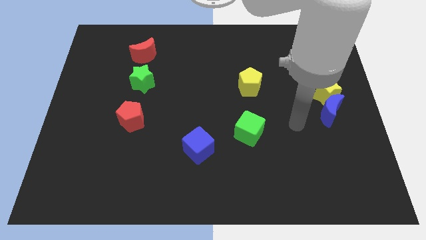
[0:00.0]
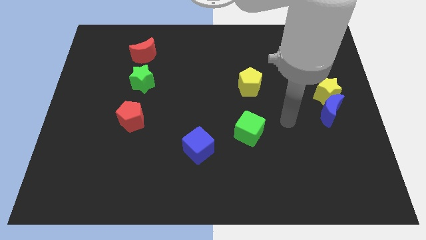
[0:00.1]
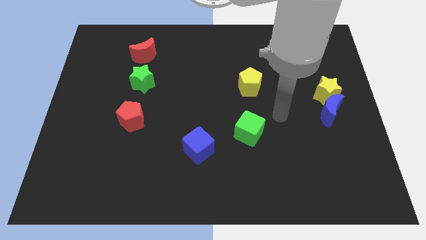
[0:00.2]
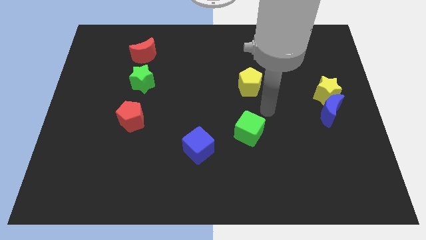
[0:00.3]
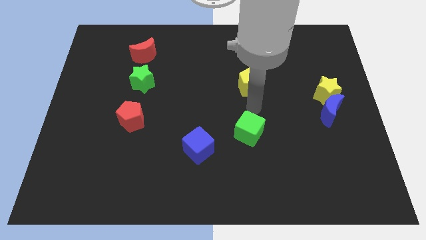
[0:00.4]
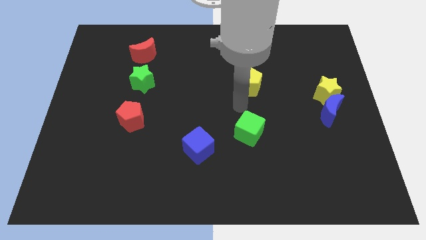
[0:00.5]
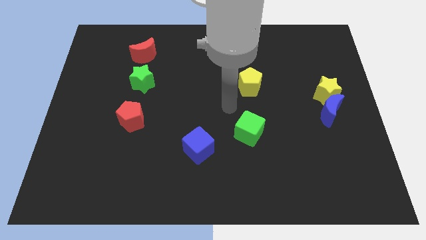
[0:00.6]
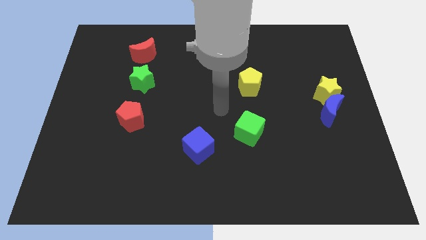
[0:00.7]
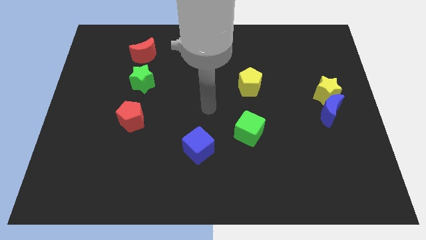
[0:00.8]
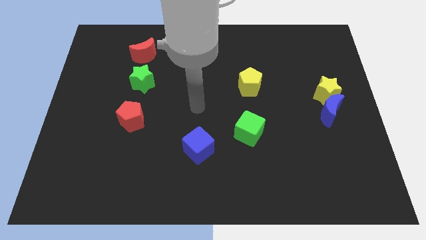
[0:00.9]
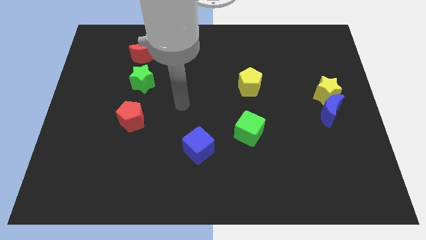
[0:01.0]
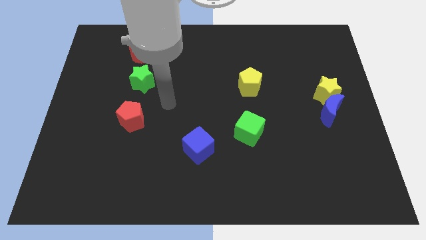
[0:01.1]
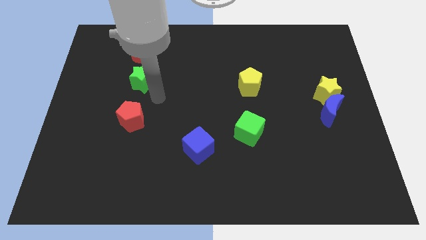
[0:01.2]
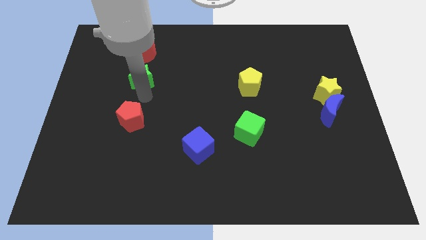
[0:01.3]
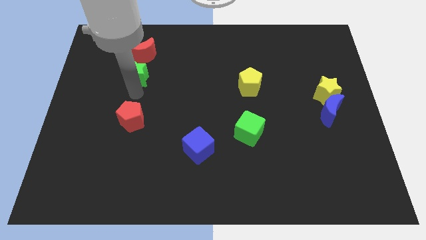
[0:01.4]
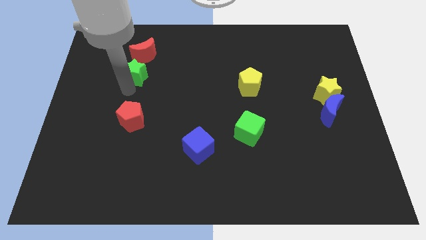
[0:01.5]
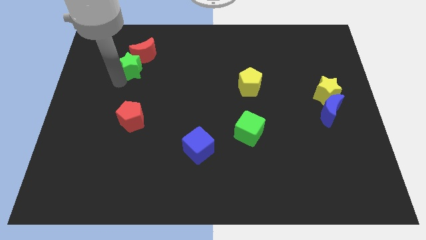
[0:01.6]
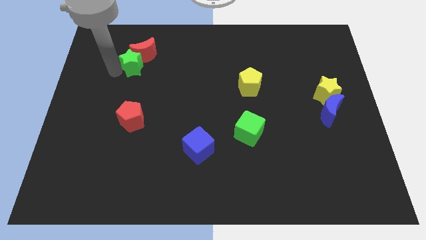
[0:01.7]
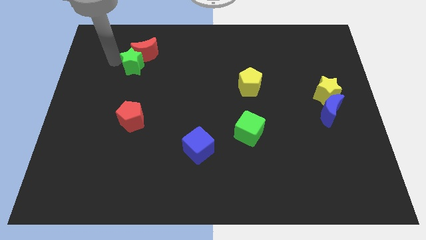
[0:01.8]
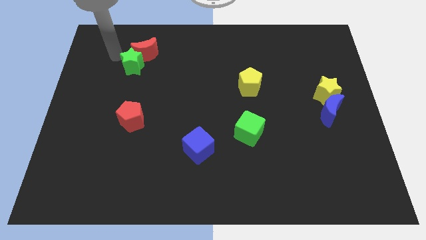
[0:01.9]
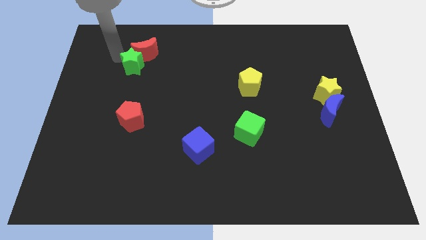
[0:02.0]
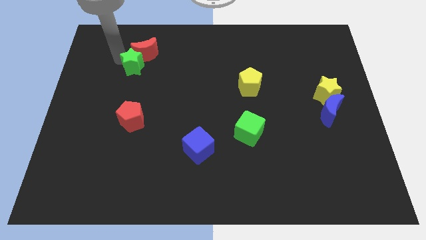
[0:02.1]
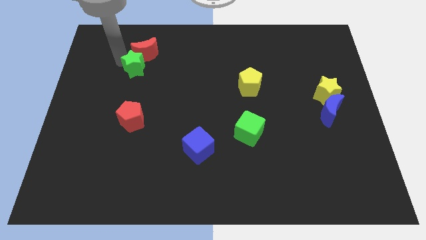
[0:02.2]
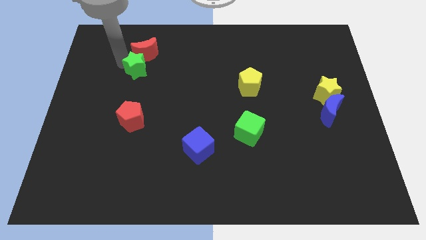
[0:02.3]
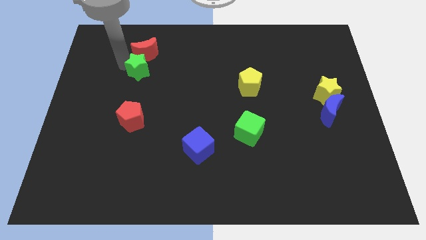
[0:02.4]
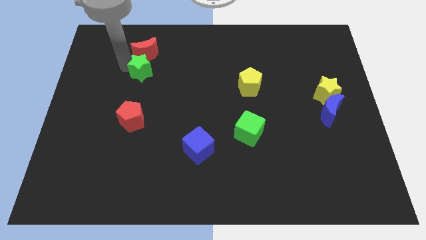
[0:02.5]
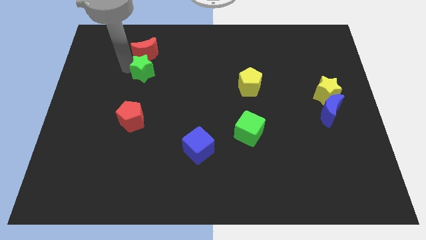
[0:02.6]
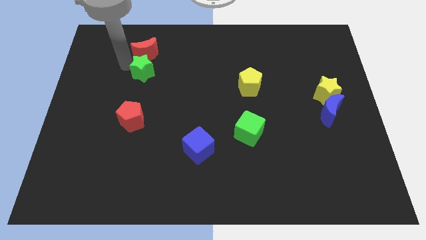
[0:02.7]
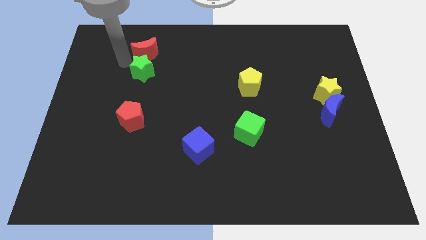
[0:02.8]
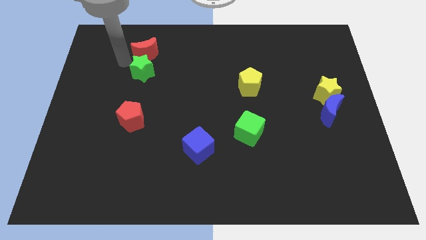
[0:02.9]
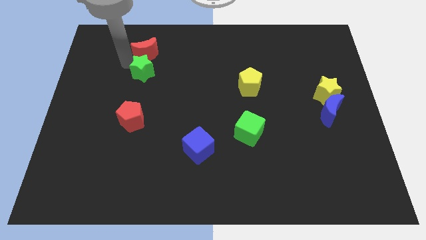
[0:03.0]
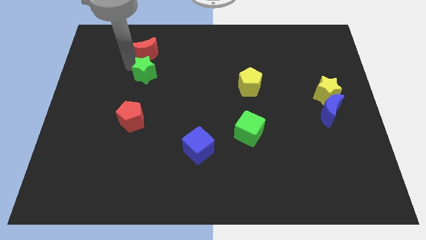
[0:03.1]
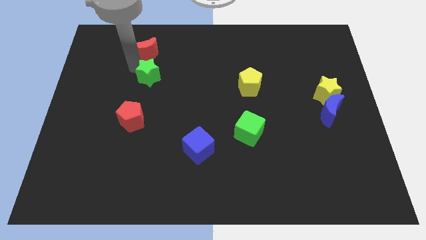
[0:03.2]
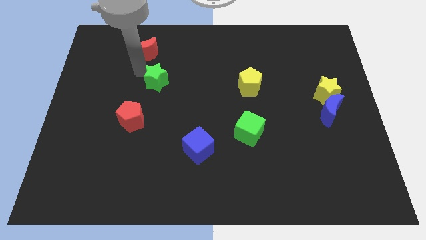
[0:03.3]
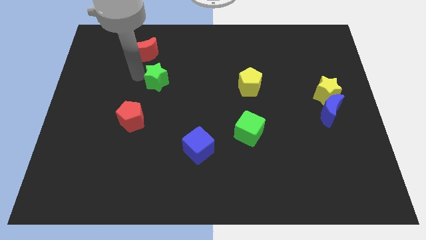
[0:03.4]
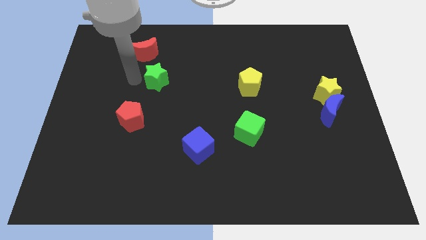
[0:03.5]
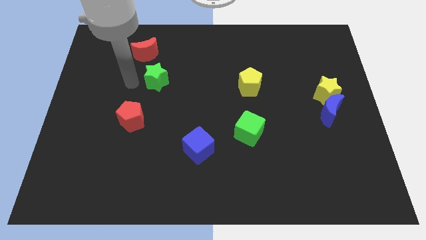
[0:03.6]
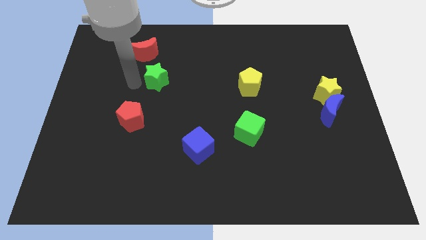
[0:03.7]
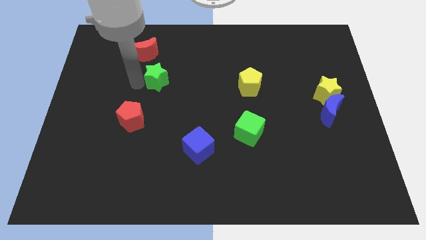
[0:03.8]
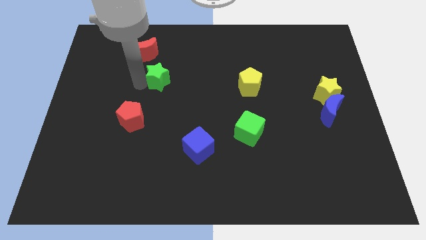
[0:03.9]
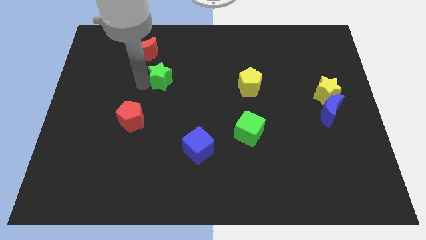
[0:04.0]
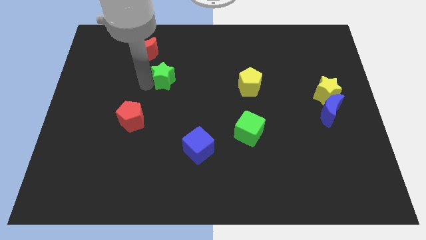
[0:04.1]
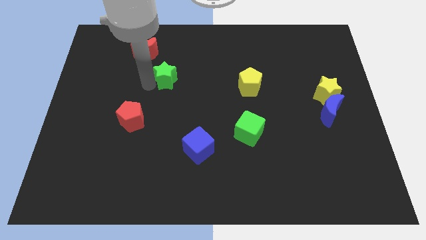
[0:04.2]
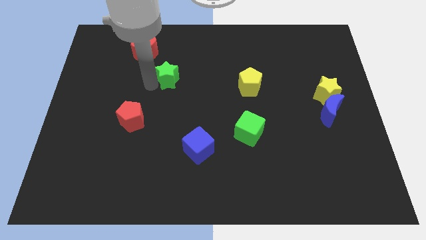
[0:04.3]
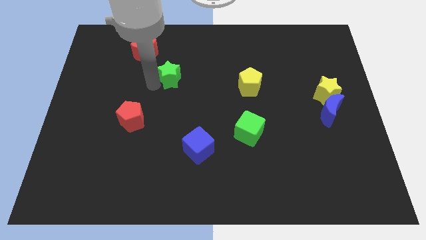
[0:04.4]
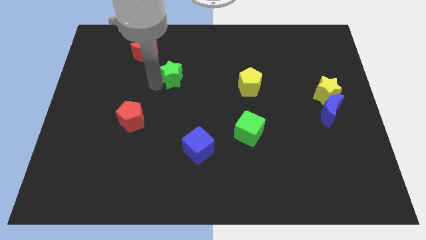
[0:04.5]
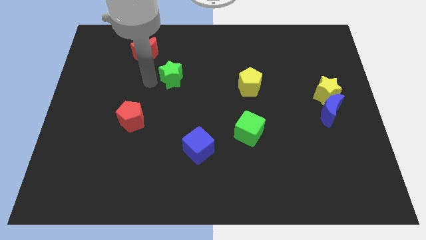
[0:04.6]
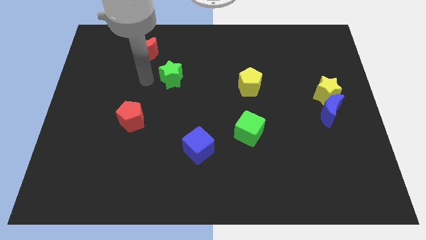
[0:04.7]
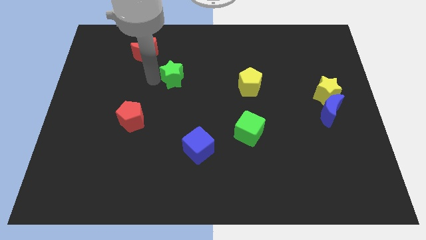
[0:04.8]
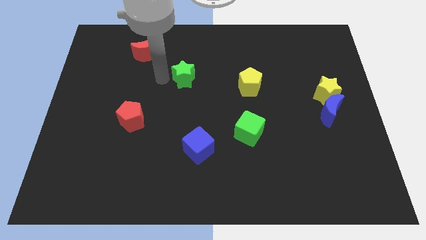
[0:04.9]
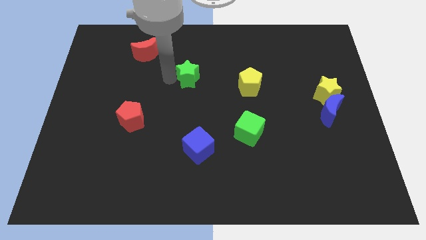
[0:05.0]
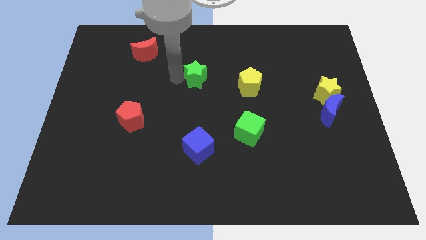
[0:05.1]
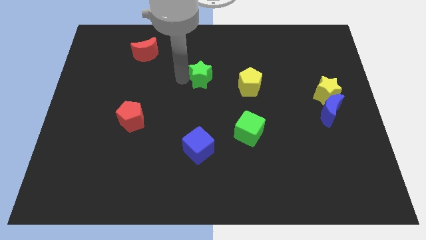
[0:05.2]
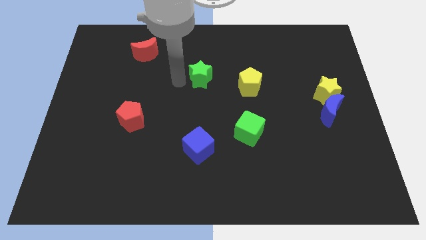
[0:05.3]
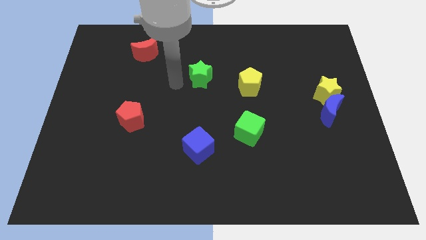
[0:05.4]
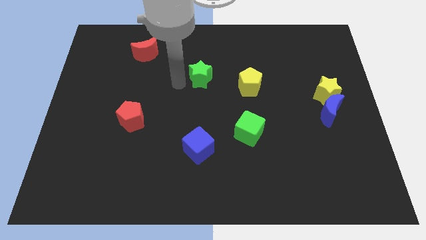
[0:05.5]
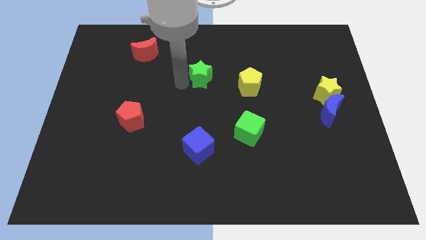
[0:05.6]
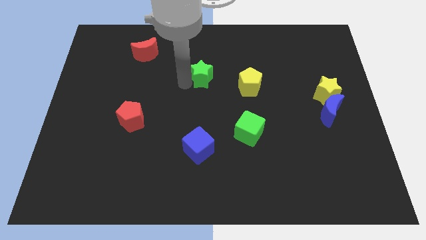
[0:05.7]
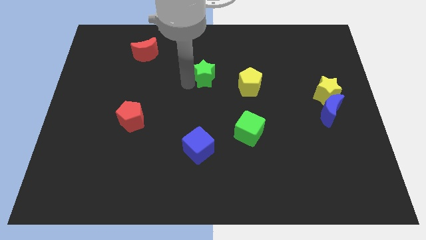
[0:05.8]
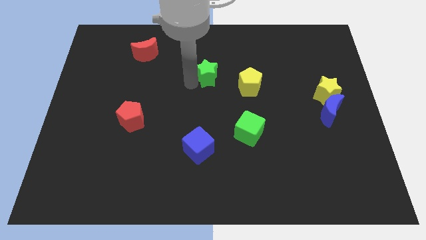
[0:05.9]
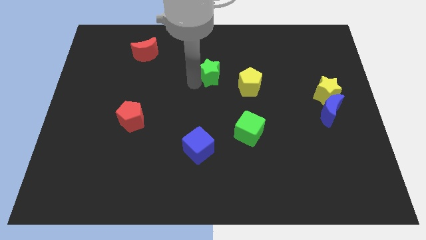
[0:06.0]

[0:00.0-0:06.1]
put the green star to the top left of the yellow pentagon
